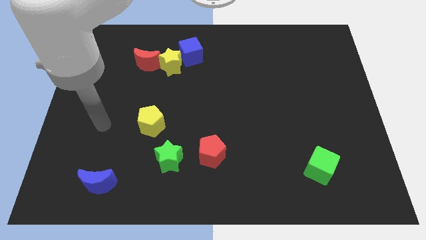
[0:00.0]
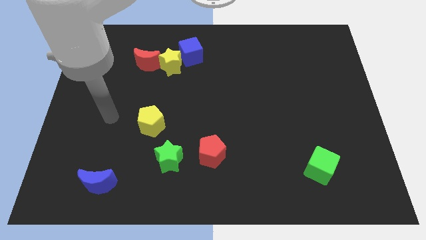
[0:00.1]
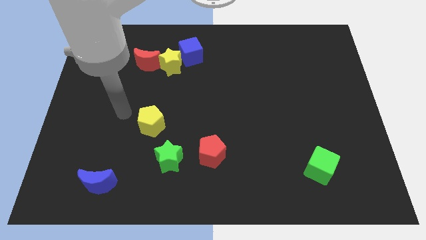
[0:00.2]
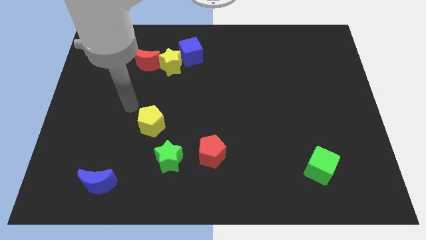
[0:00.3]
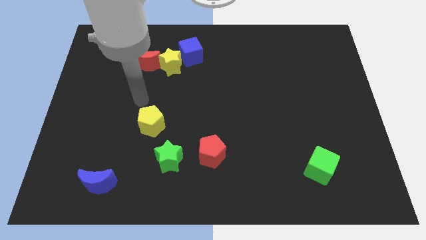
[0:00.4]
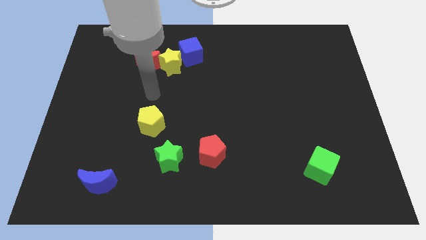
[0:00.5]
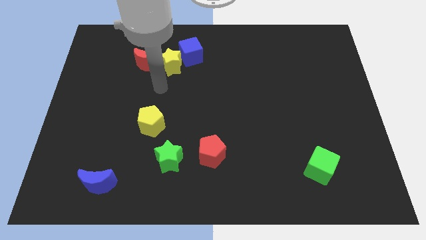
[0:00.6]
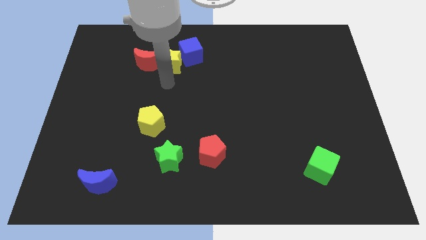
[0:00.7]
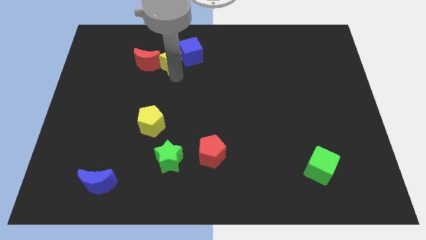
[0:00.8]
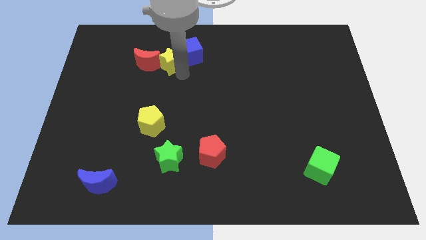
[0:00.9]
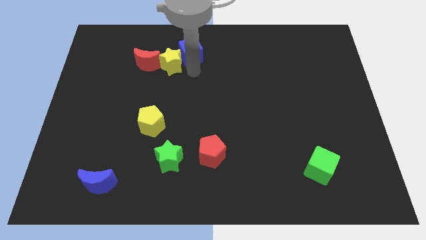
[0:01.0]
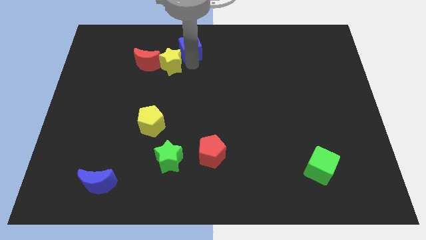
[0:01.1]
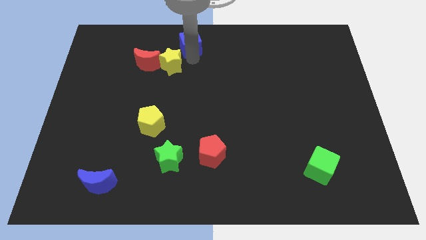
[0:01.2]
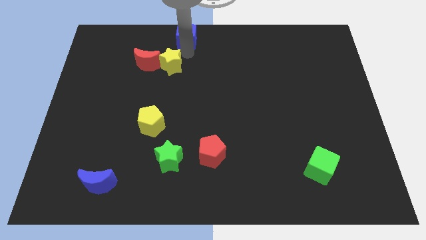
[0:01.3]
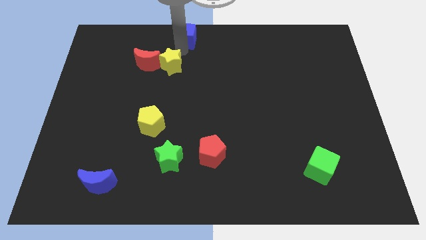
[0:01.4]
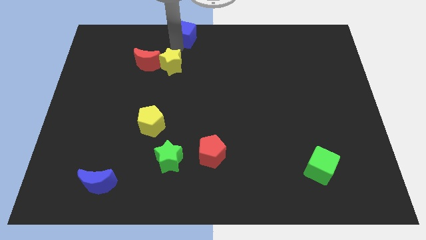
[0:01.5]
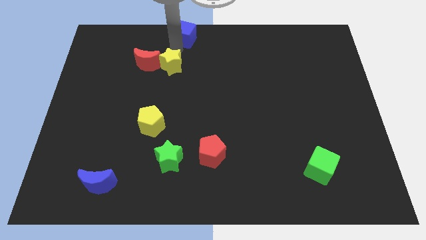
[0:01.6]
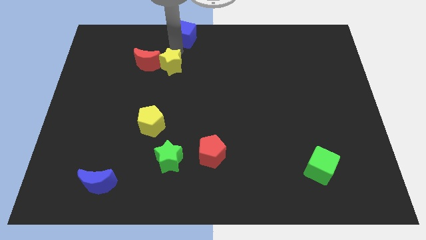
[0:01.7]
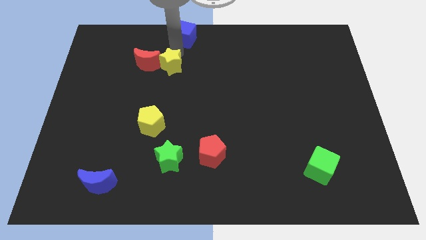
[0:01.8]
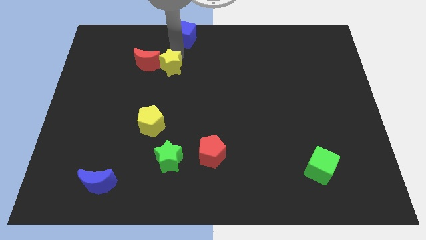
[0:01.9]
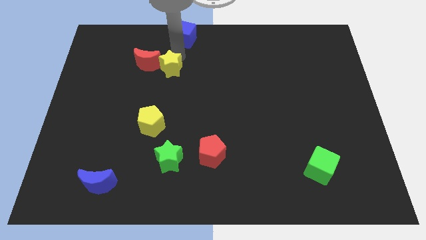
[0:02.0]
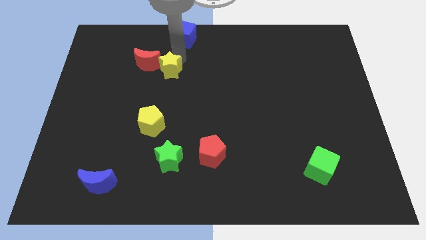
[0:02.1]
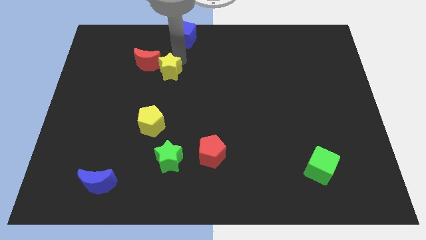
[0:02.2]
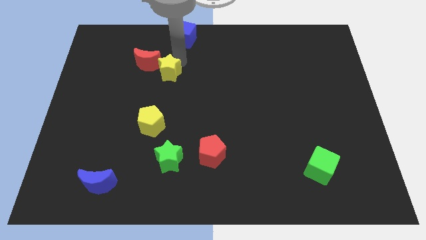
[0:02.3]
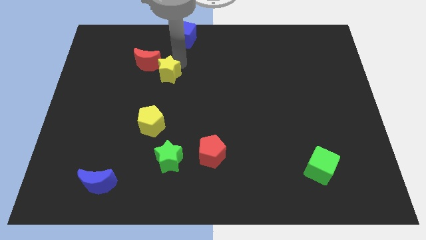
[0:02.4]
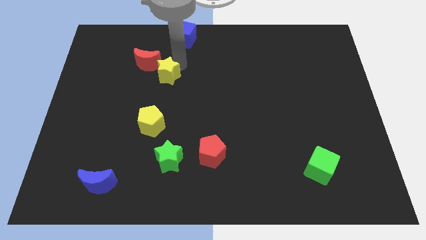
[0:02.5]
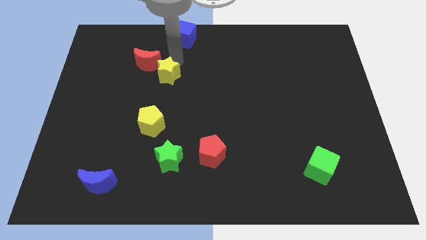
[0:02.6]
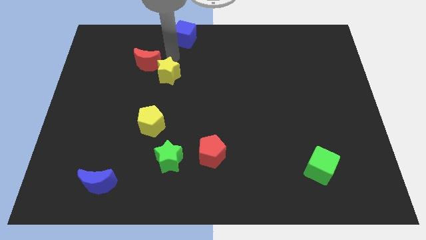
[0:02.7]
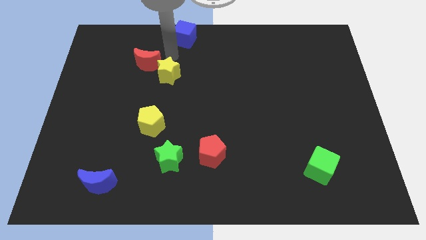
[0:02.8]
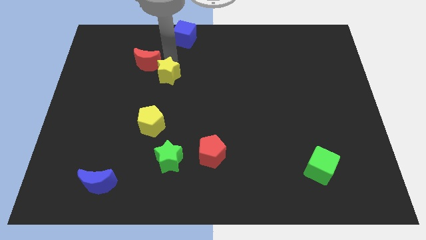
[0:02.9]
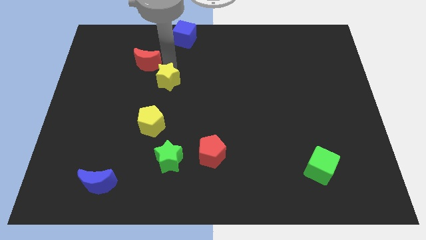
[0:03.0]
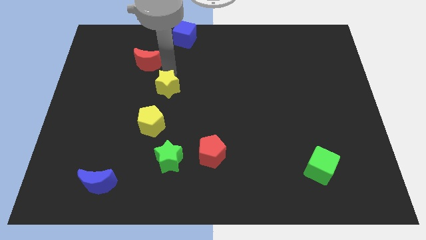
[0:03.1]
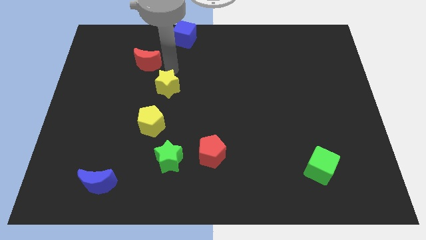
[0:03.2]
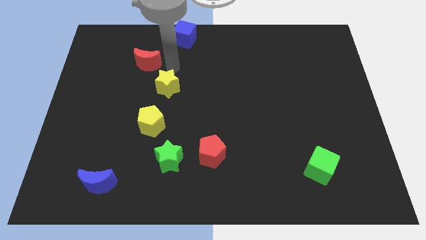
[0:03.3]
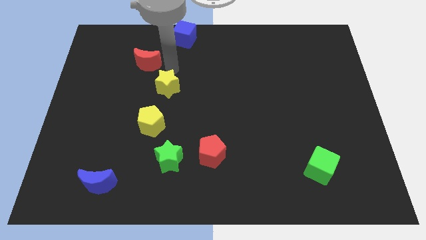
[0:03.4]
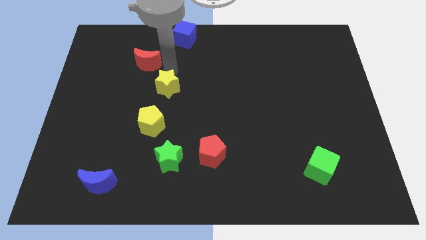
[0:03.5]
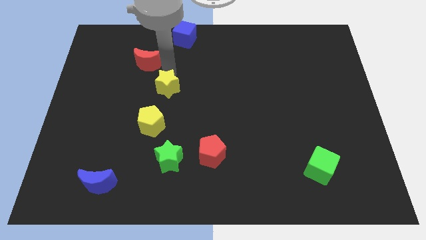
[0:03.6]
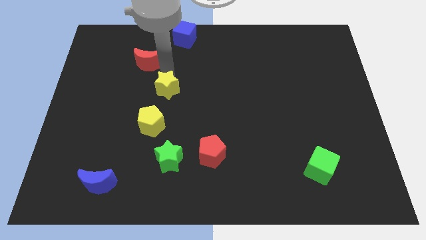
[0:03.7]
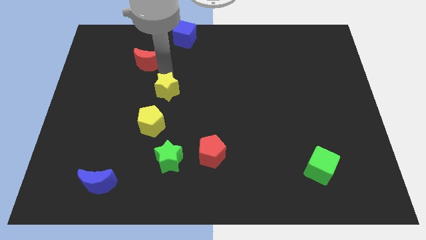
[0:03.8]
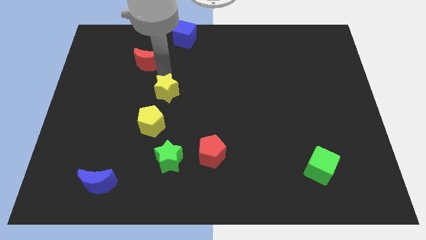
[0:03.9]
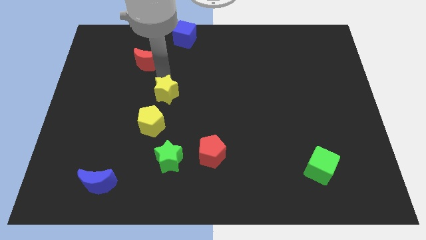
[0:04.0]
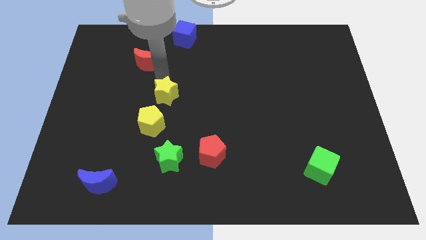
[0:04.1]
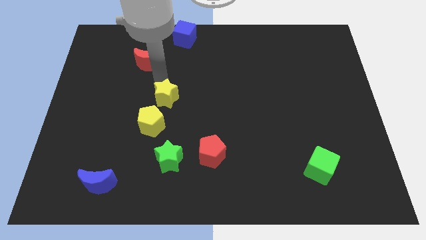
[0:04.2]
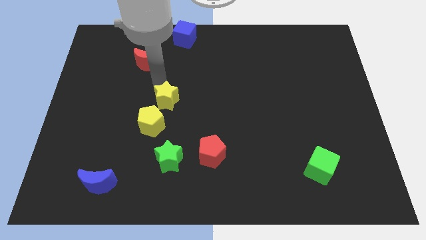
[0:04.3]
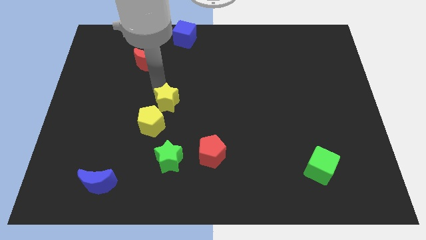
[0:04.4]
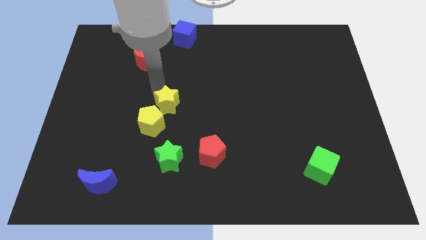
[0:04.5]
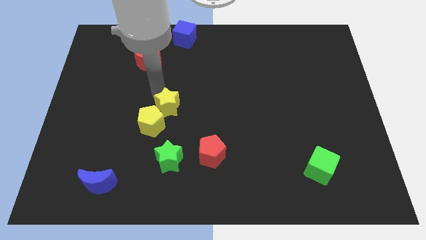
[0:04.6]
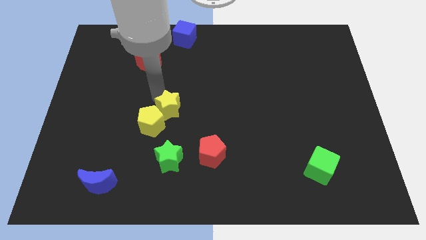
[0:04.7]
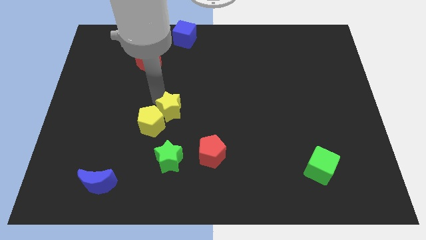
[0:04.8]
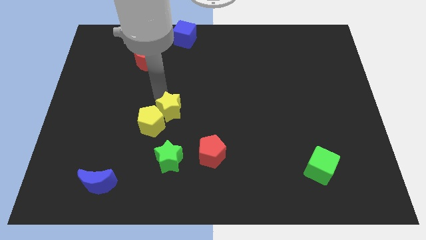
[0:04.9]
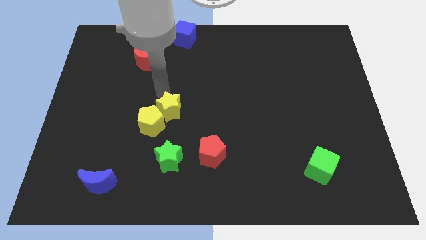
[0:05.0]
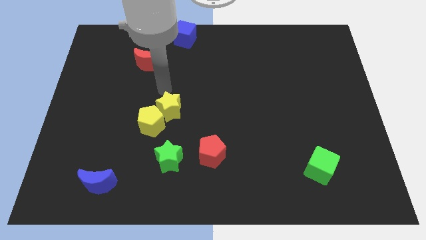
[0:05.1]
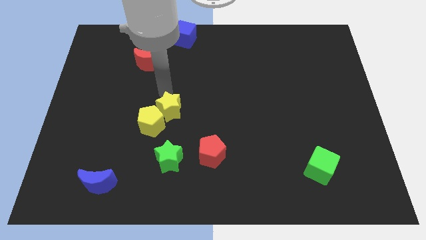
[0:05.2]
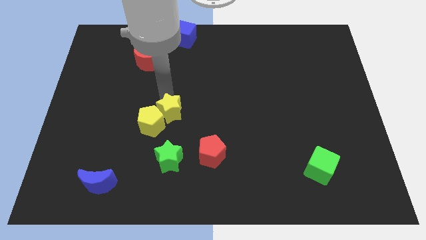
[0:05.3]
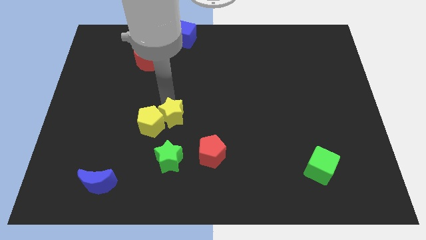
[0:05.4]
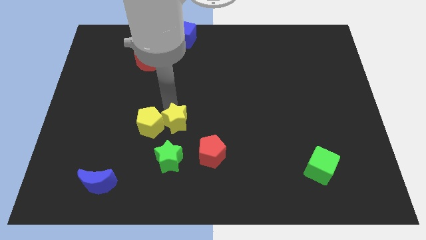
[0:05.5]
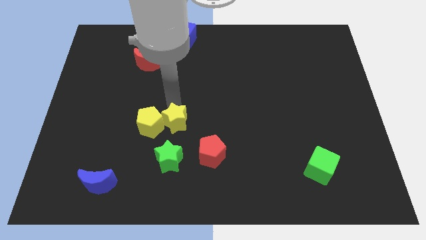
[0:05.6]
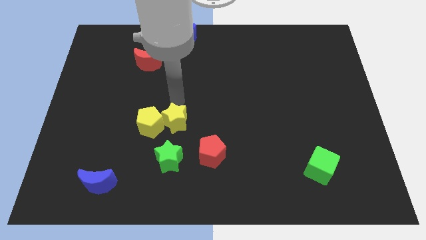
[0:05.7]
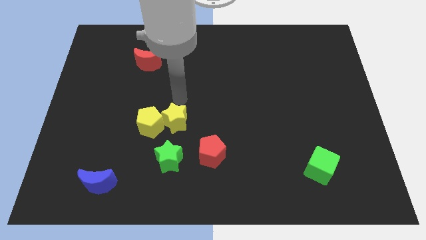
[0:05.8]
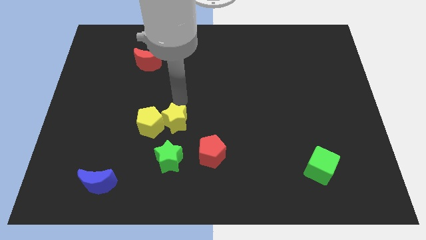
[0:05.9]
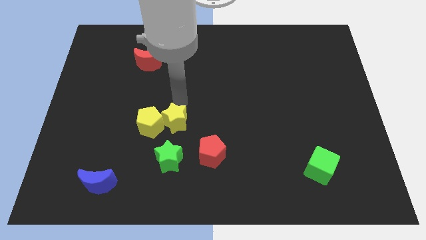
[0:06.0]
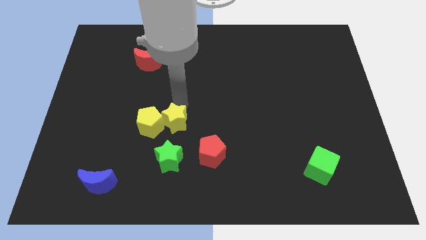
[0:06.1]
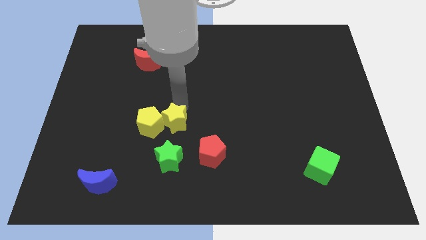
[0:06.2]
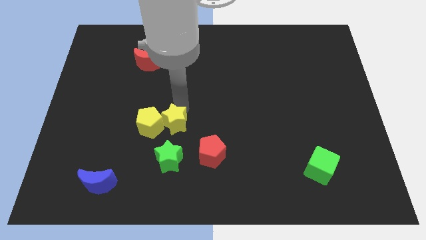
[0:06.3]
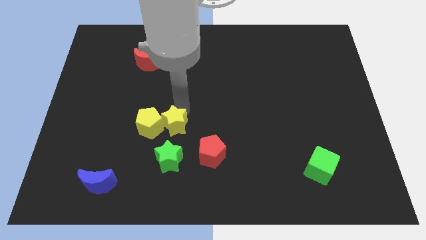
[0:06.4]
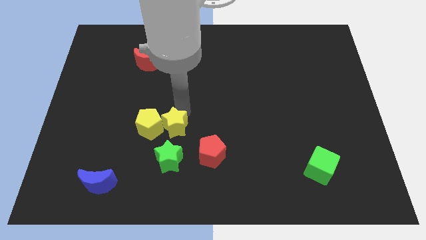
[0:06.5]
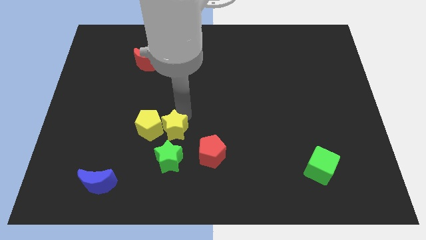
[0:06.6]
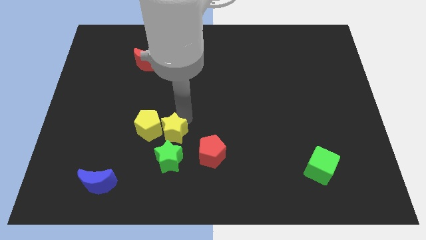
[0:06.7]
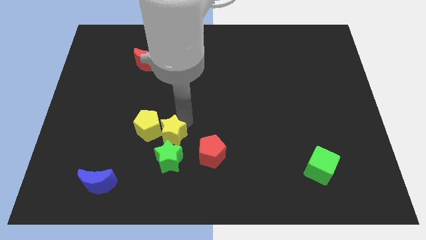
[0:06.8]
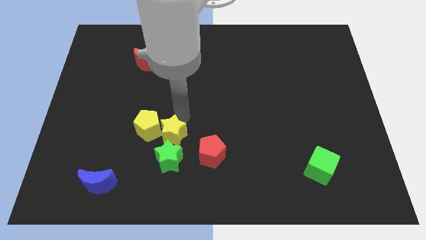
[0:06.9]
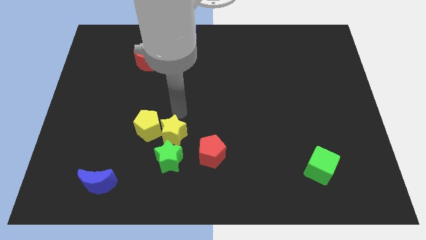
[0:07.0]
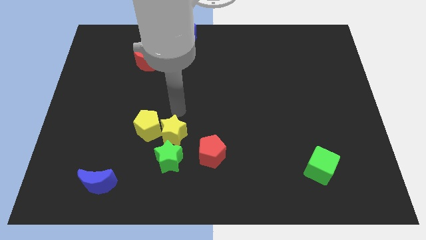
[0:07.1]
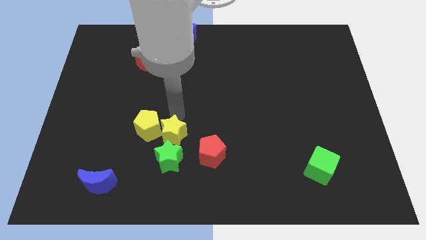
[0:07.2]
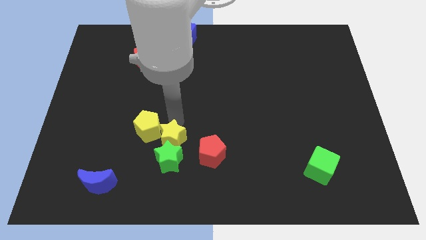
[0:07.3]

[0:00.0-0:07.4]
slide the yellow star to the green star

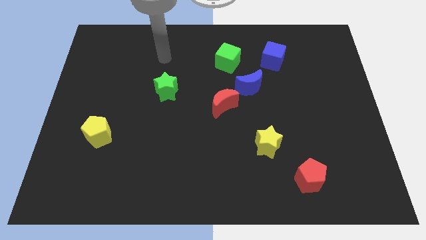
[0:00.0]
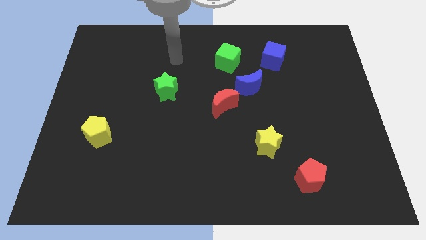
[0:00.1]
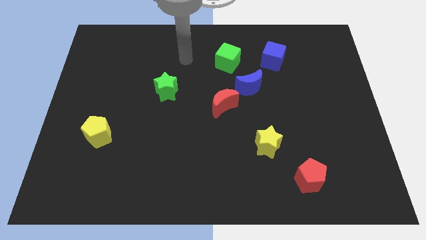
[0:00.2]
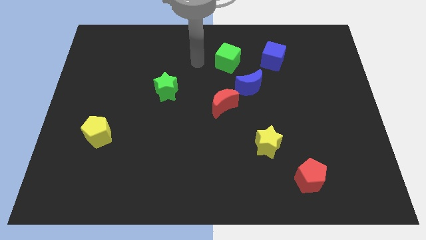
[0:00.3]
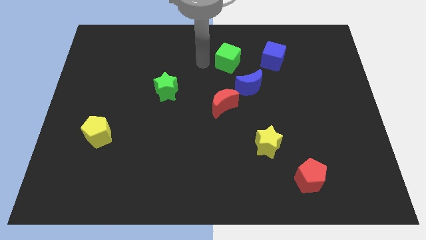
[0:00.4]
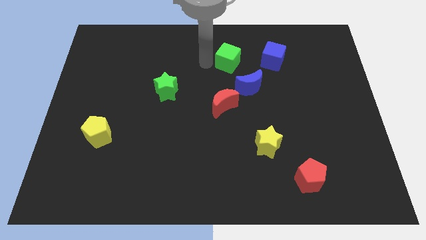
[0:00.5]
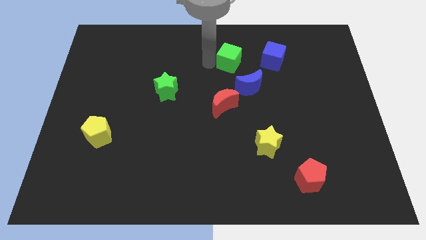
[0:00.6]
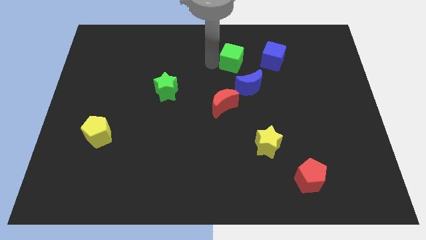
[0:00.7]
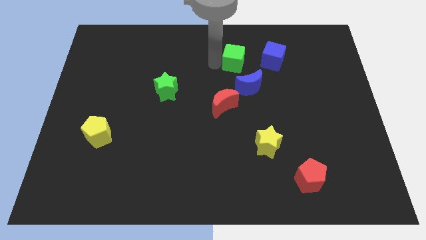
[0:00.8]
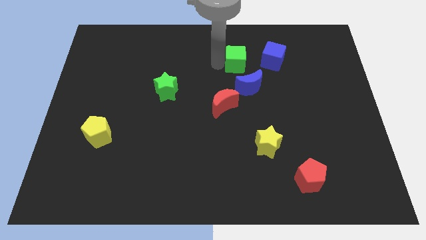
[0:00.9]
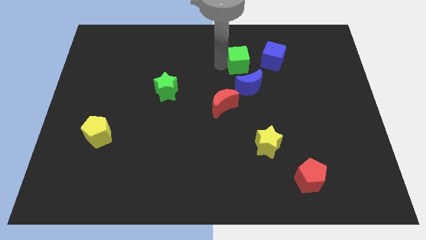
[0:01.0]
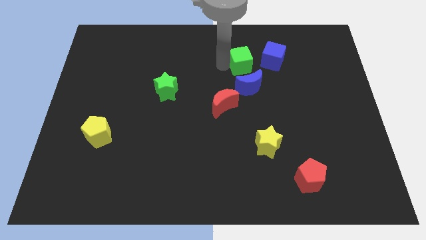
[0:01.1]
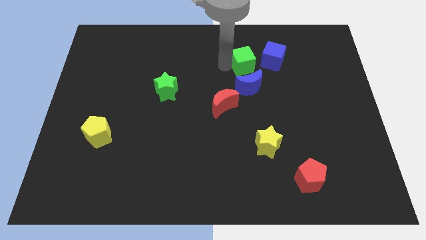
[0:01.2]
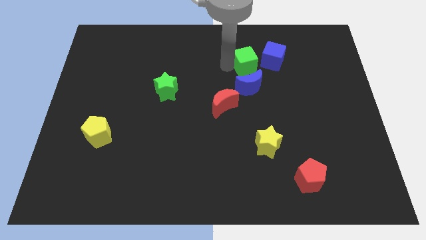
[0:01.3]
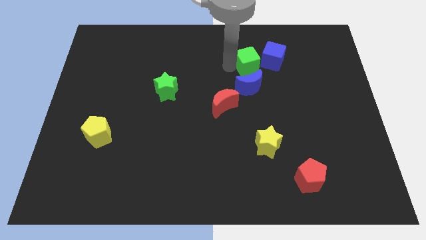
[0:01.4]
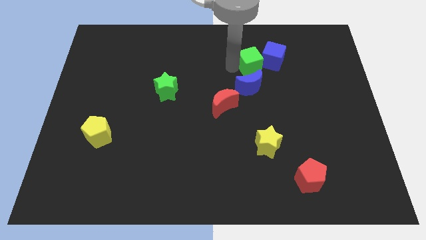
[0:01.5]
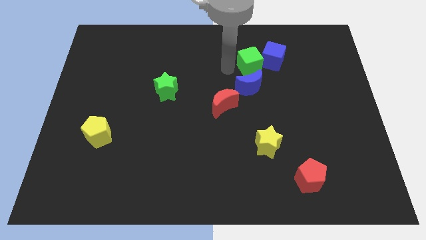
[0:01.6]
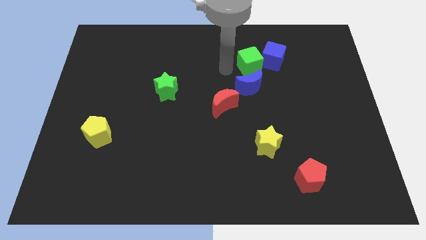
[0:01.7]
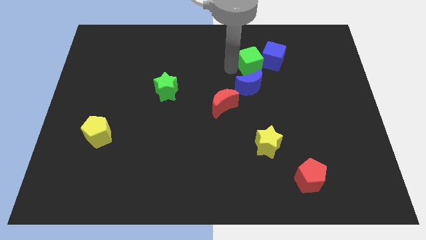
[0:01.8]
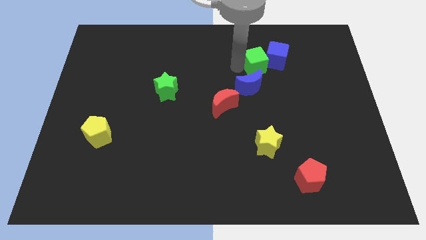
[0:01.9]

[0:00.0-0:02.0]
slide the green cube towards the blue cube
